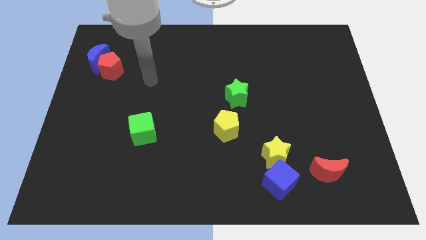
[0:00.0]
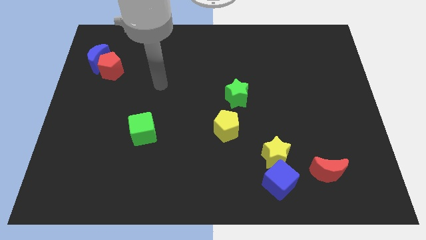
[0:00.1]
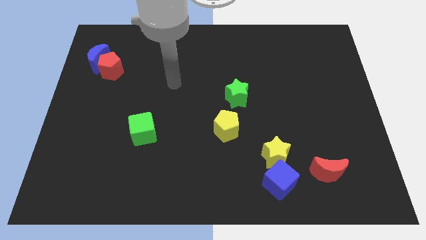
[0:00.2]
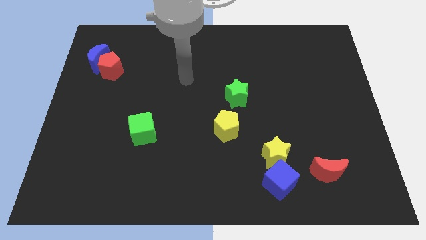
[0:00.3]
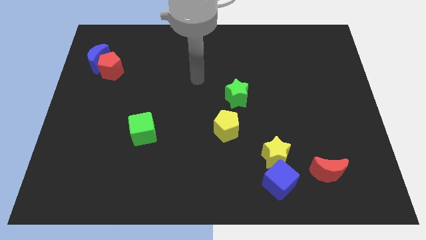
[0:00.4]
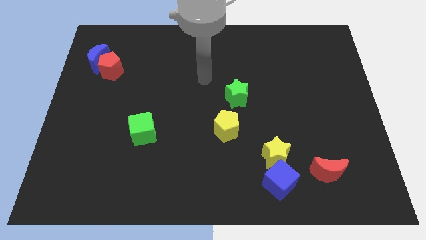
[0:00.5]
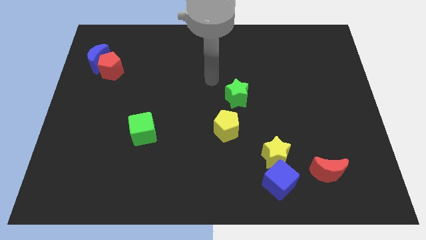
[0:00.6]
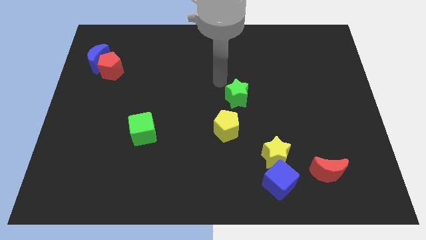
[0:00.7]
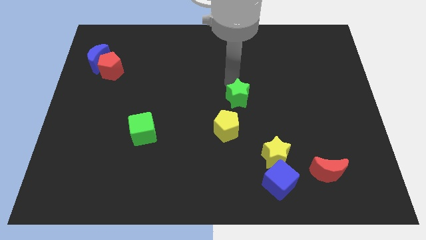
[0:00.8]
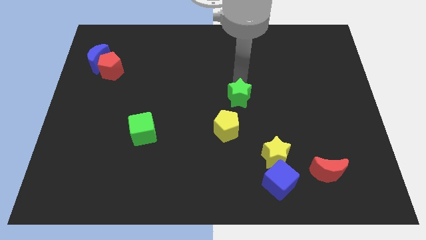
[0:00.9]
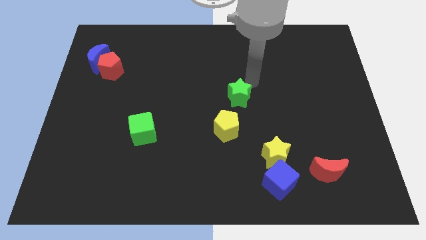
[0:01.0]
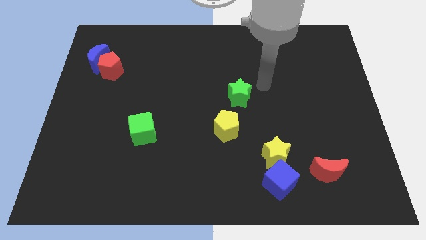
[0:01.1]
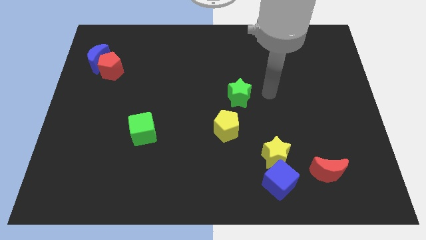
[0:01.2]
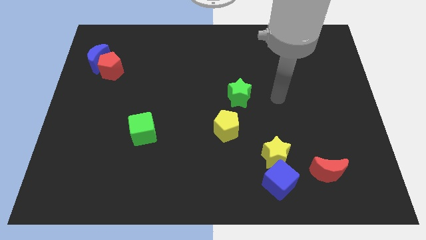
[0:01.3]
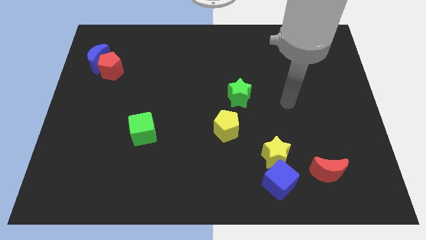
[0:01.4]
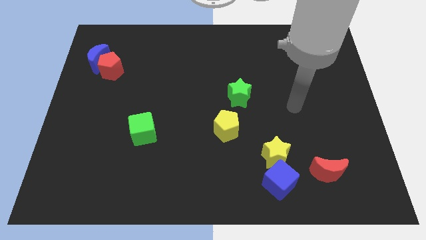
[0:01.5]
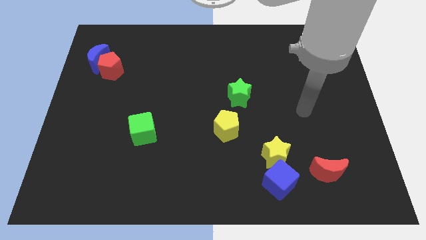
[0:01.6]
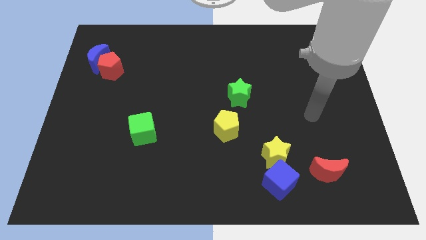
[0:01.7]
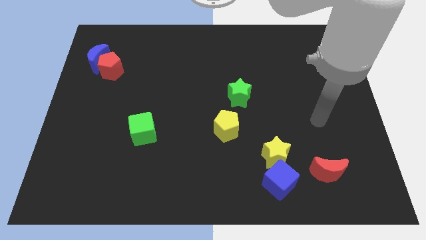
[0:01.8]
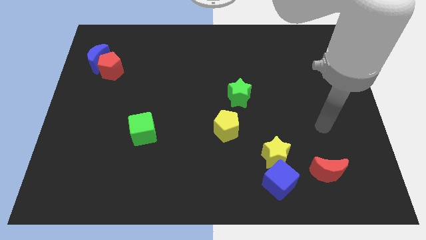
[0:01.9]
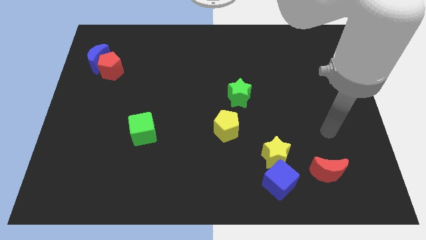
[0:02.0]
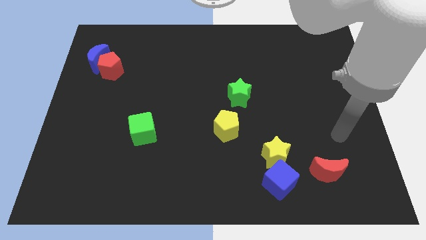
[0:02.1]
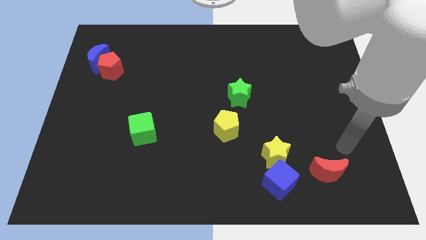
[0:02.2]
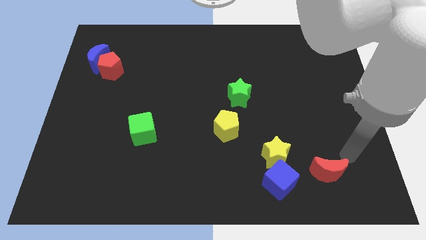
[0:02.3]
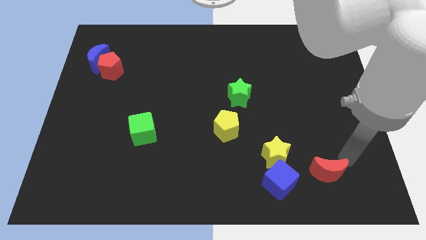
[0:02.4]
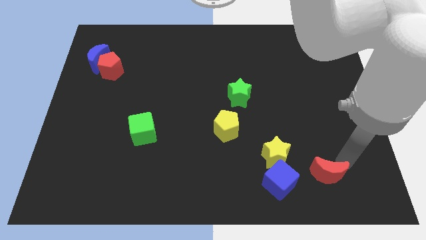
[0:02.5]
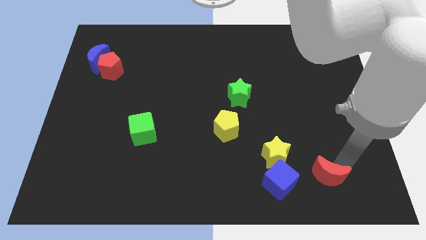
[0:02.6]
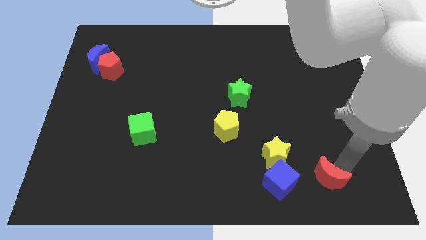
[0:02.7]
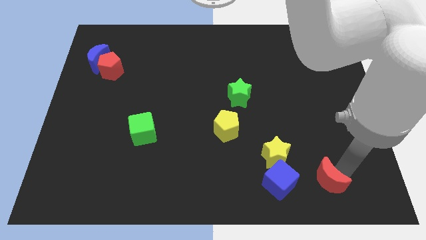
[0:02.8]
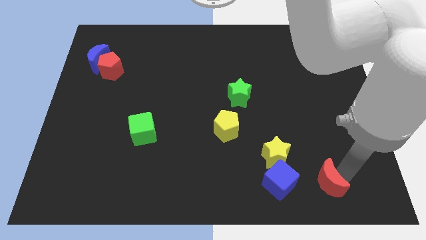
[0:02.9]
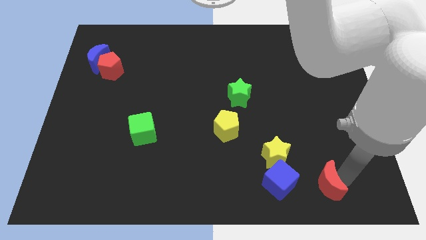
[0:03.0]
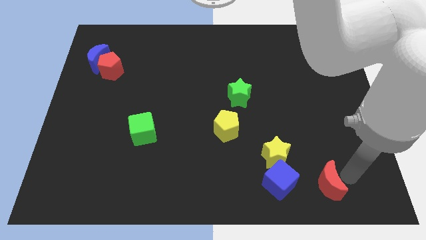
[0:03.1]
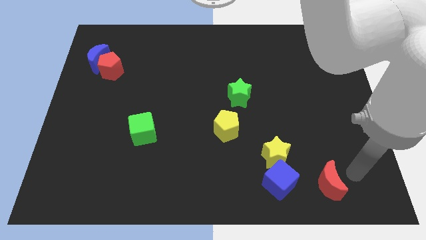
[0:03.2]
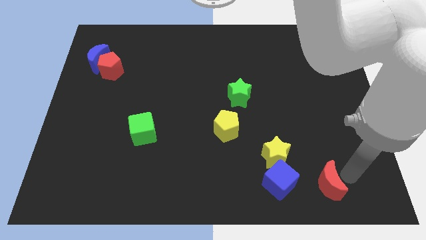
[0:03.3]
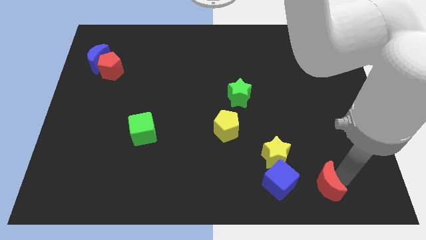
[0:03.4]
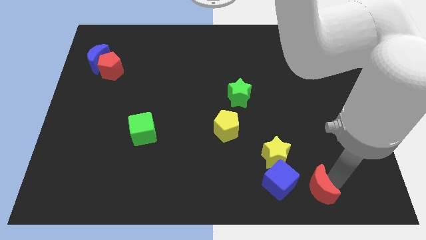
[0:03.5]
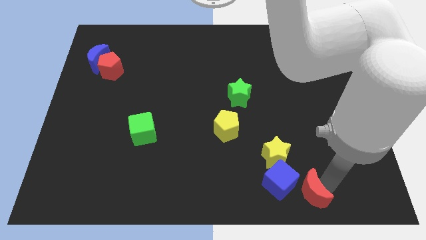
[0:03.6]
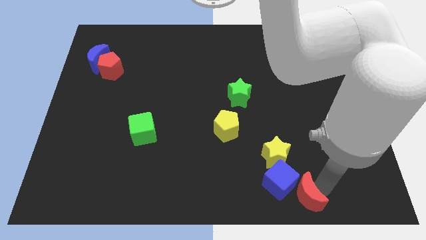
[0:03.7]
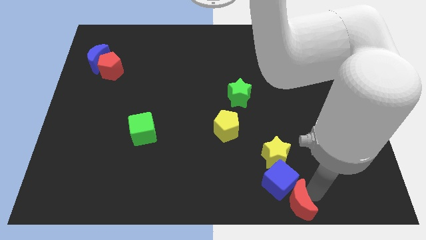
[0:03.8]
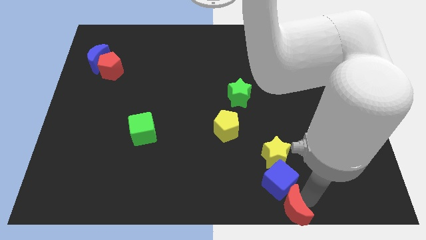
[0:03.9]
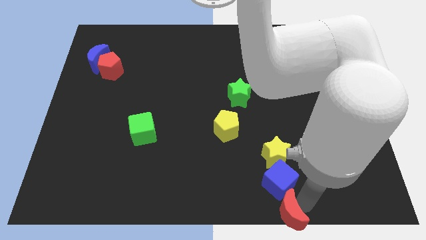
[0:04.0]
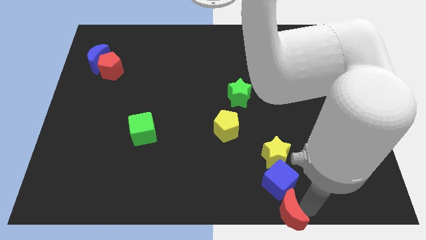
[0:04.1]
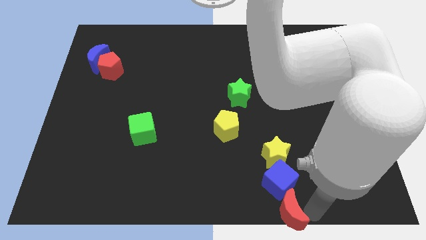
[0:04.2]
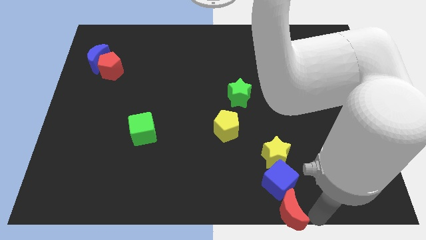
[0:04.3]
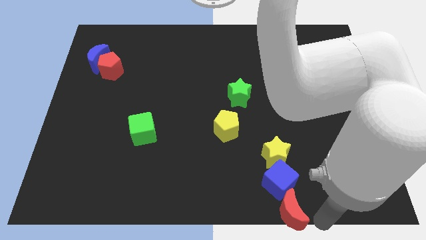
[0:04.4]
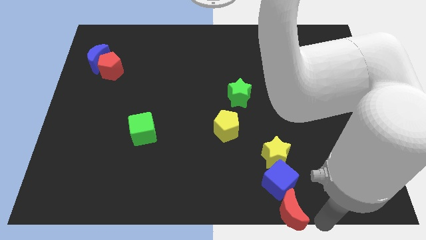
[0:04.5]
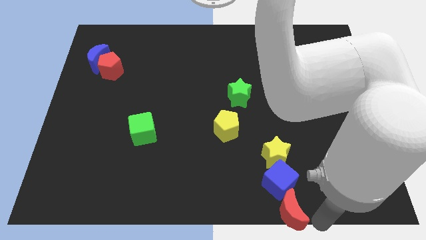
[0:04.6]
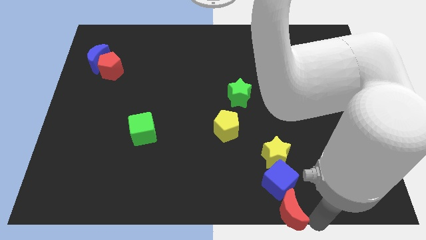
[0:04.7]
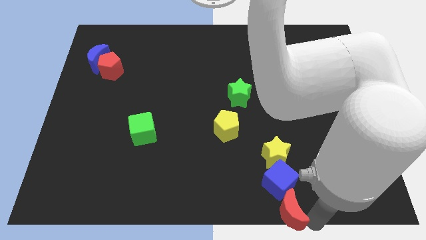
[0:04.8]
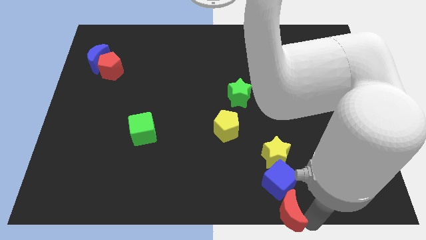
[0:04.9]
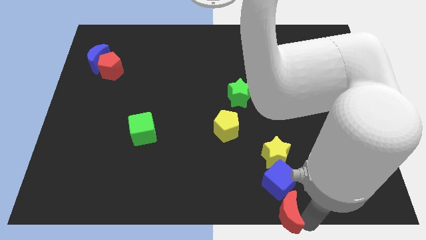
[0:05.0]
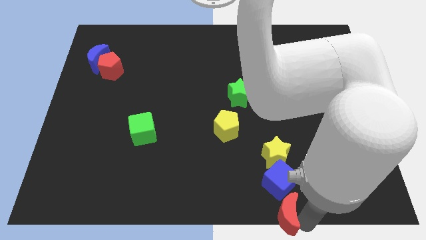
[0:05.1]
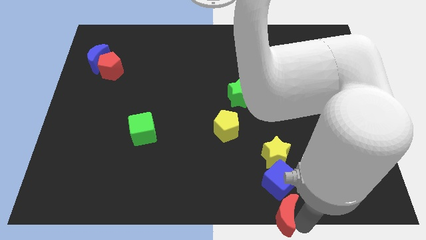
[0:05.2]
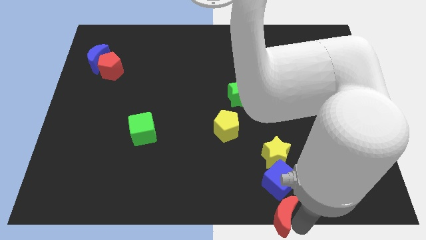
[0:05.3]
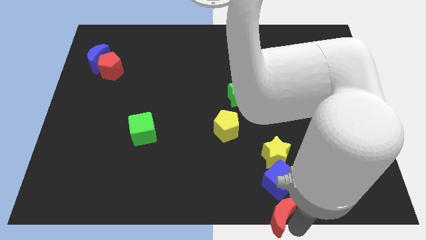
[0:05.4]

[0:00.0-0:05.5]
slightly slide the red moon to the left

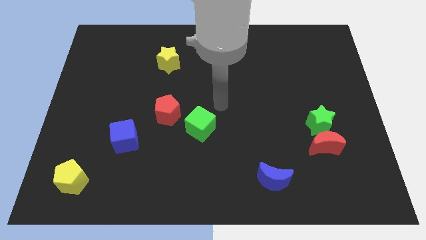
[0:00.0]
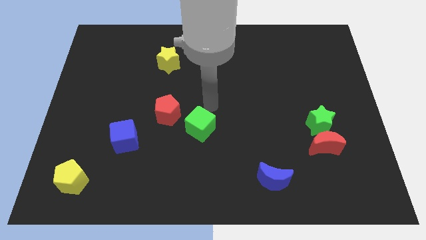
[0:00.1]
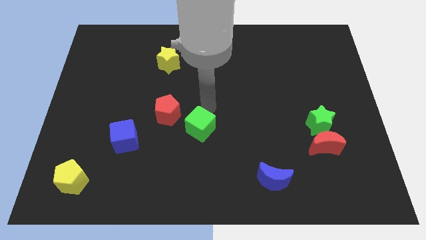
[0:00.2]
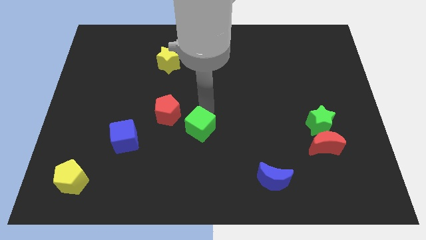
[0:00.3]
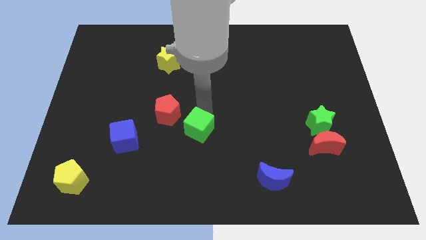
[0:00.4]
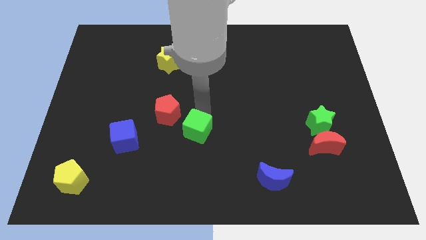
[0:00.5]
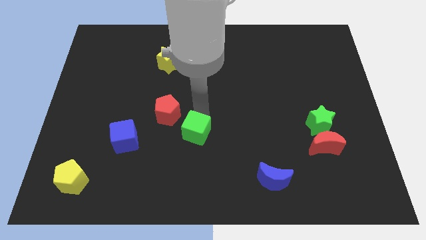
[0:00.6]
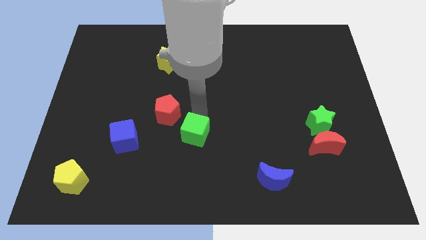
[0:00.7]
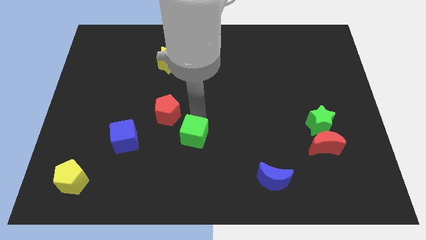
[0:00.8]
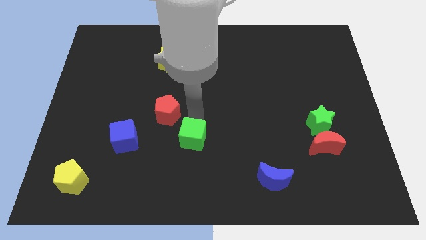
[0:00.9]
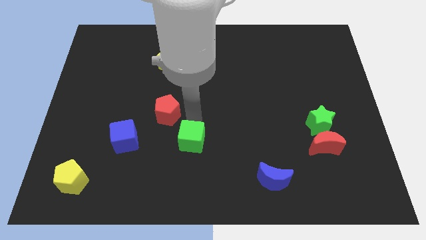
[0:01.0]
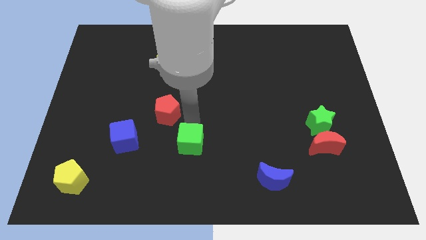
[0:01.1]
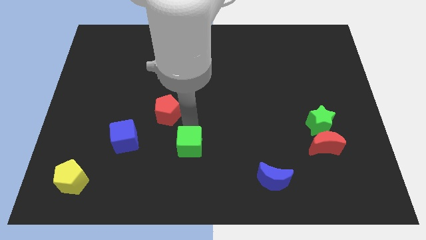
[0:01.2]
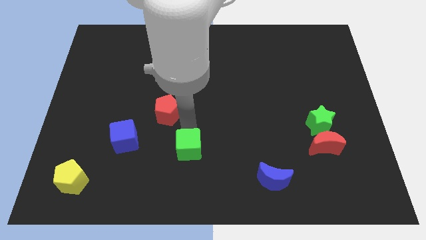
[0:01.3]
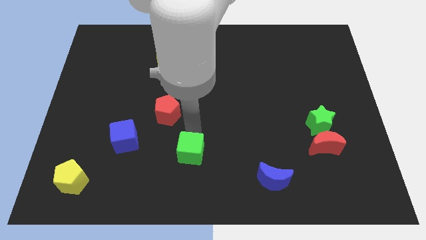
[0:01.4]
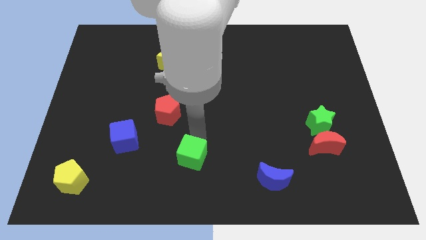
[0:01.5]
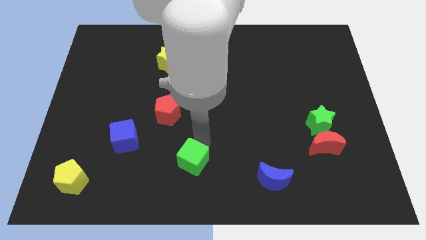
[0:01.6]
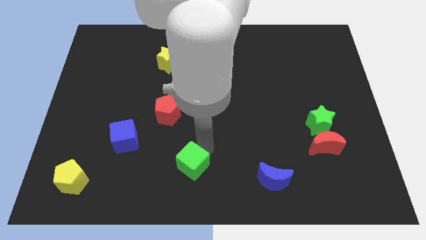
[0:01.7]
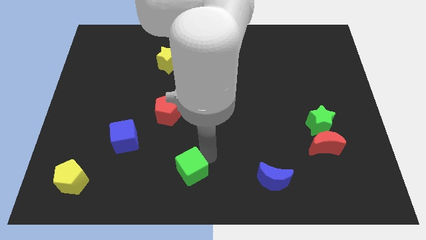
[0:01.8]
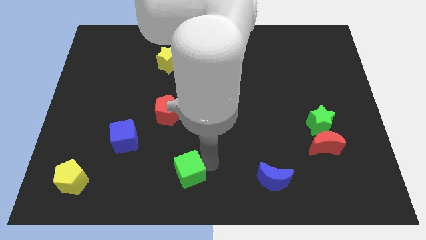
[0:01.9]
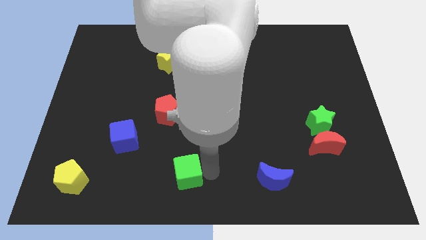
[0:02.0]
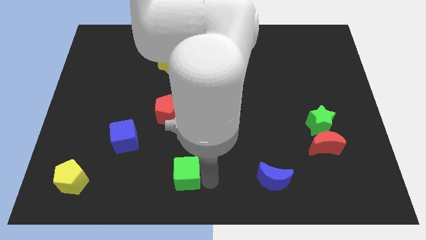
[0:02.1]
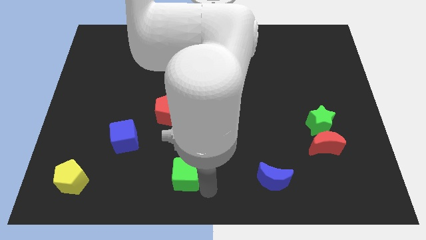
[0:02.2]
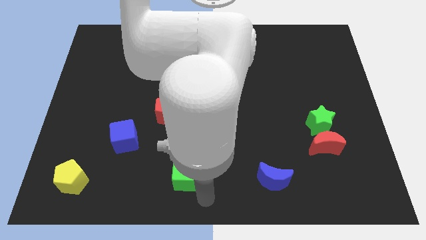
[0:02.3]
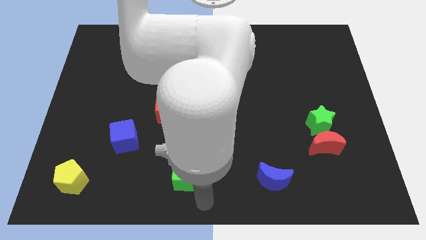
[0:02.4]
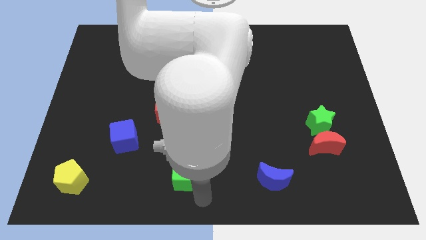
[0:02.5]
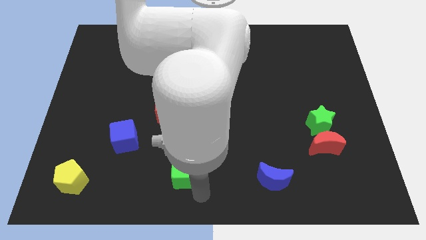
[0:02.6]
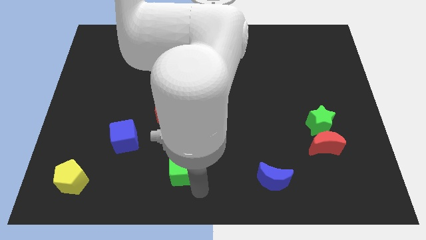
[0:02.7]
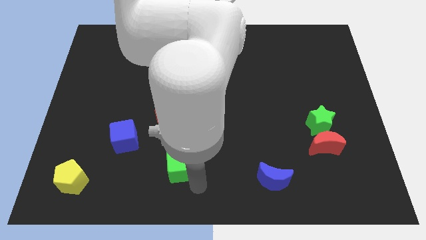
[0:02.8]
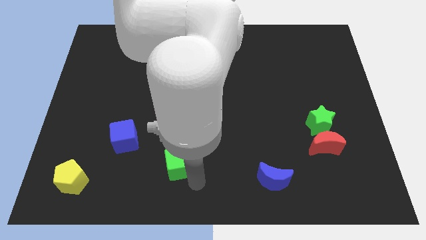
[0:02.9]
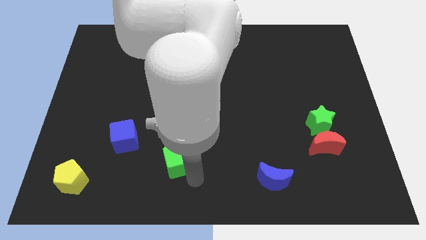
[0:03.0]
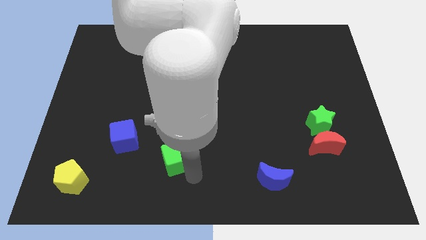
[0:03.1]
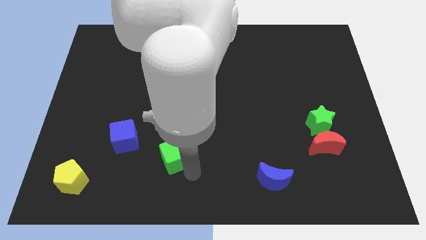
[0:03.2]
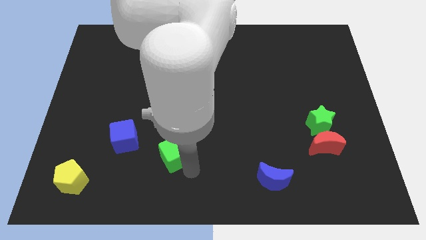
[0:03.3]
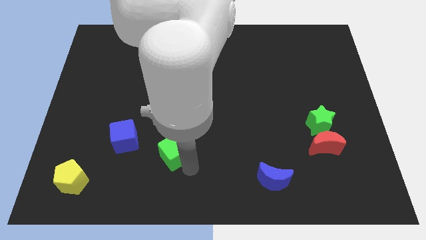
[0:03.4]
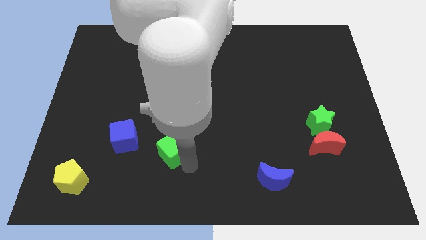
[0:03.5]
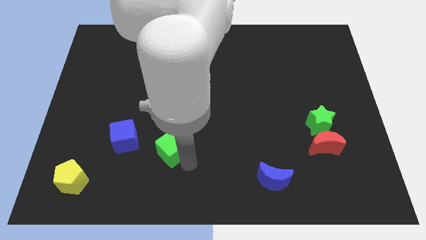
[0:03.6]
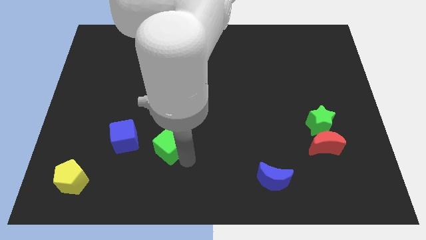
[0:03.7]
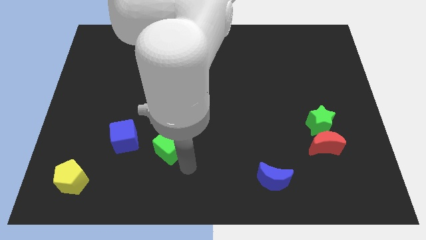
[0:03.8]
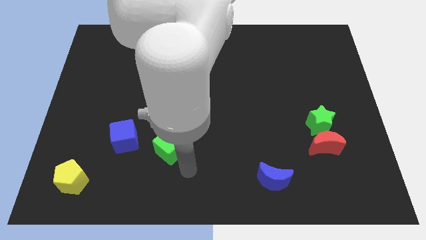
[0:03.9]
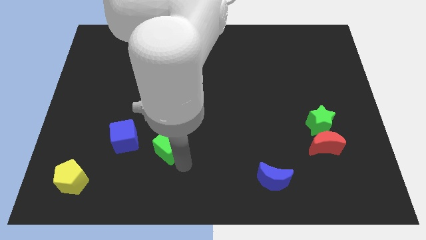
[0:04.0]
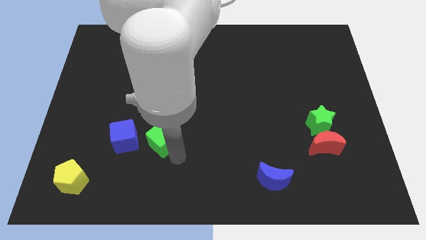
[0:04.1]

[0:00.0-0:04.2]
move the green cube a little bit left
